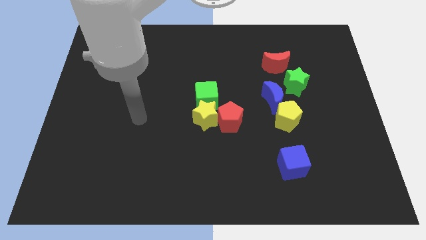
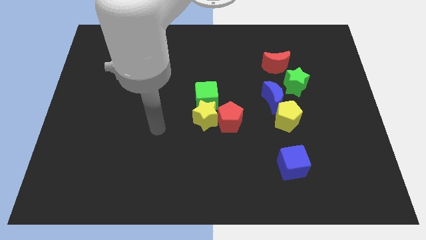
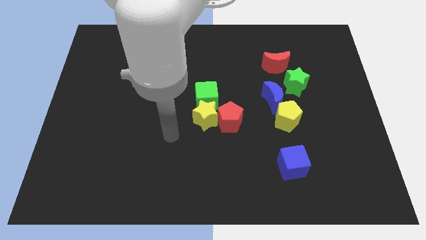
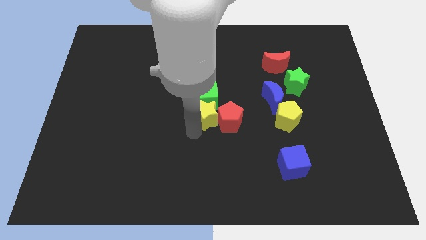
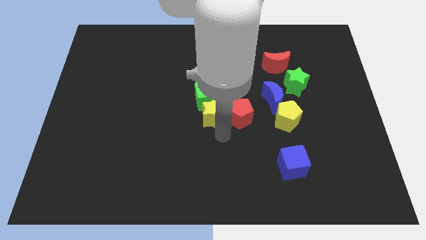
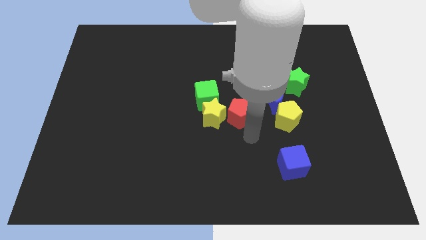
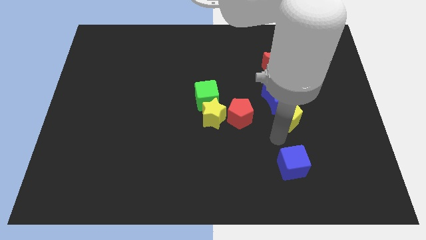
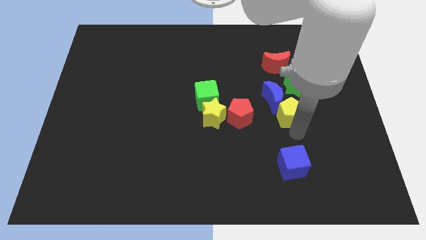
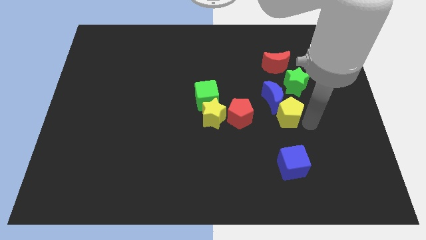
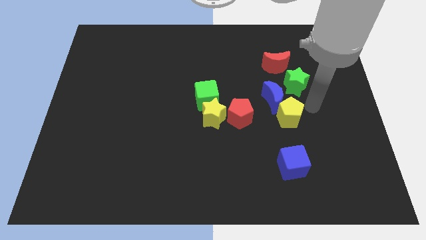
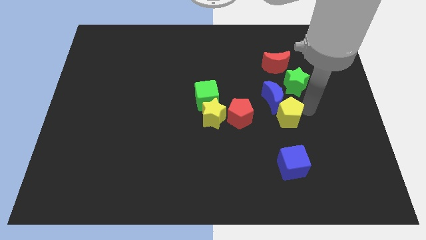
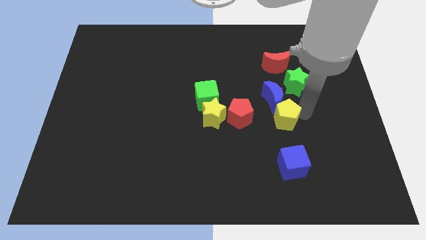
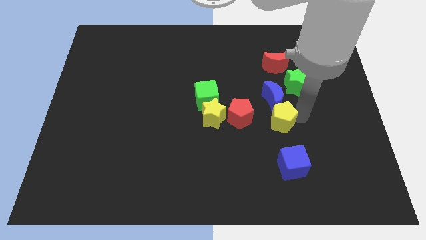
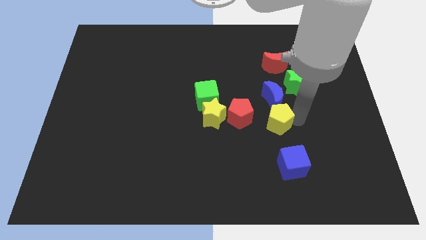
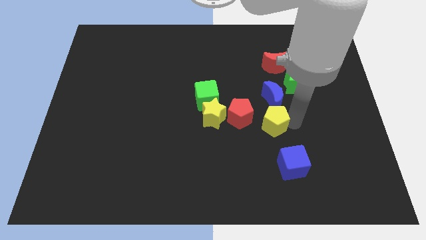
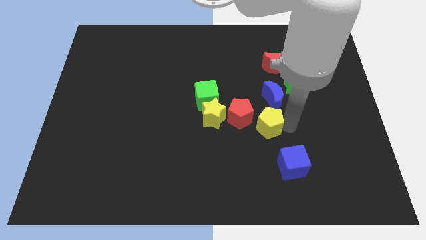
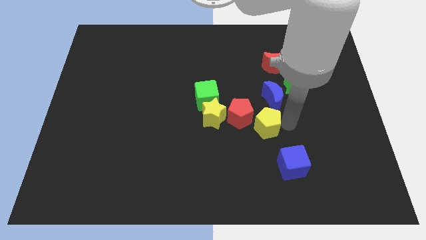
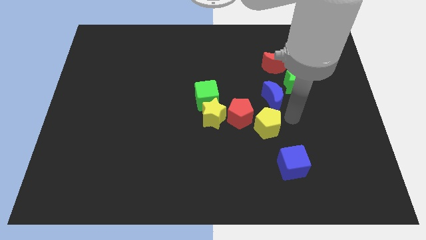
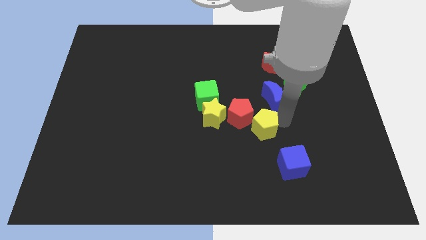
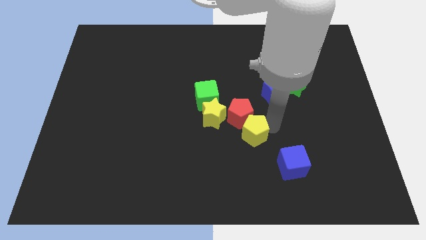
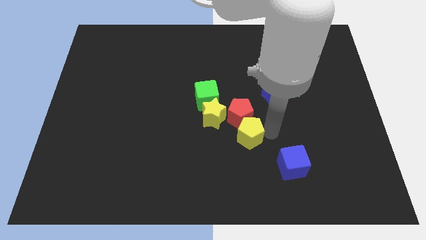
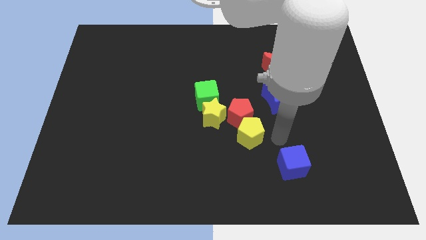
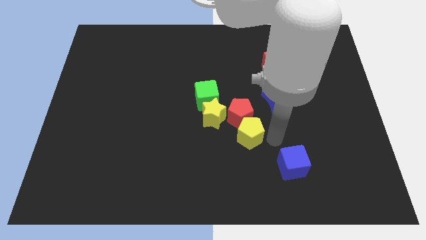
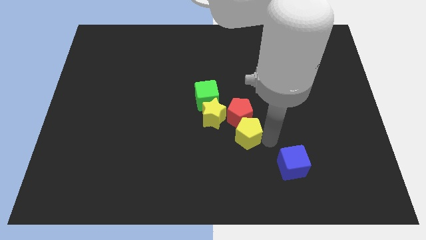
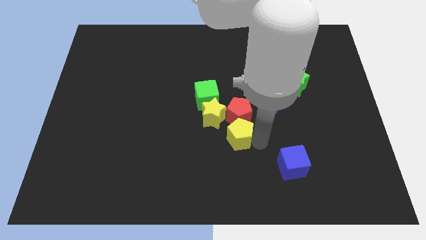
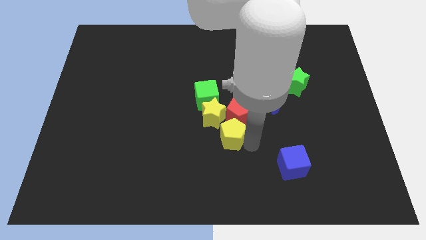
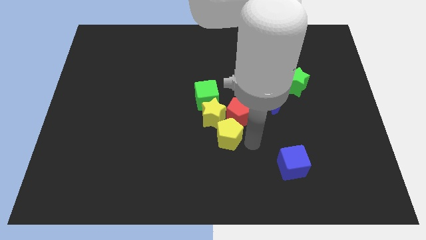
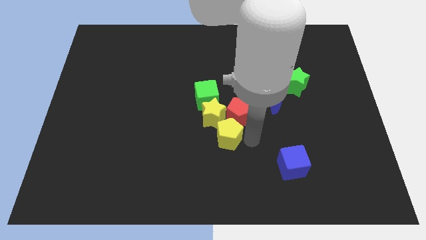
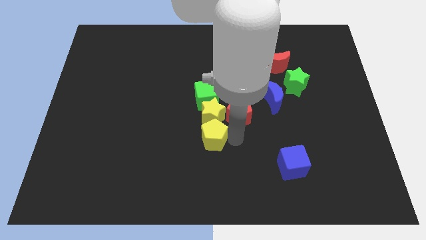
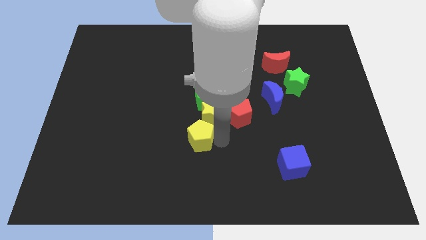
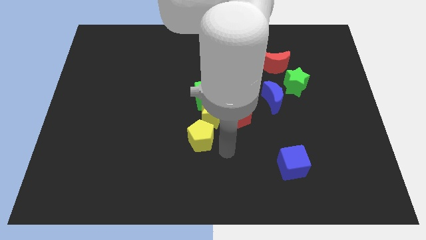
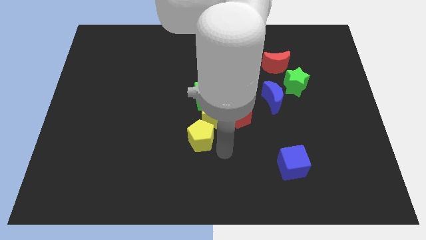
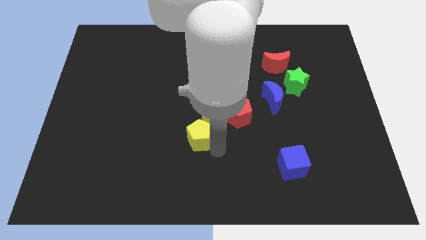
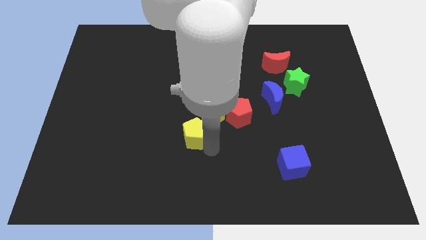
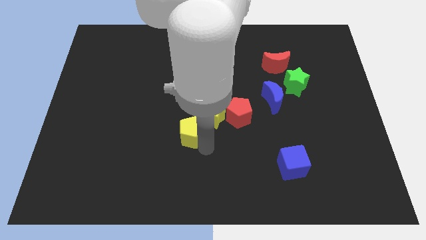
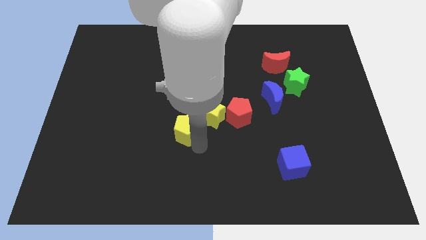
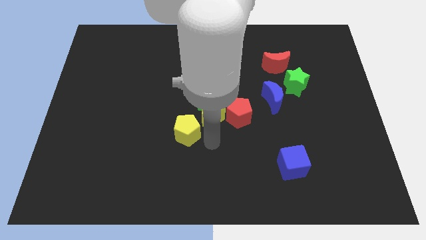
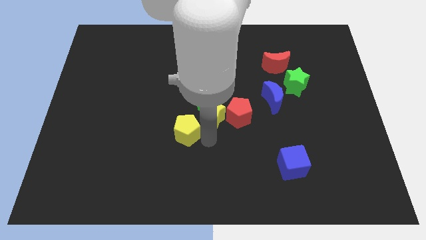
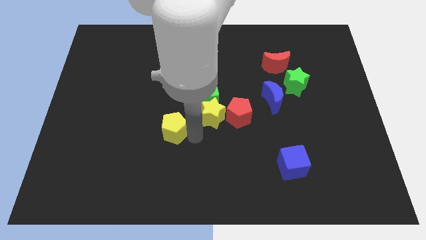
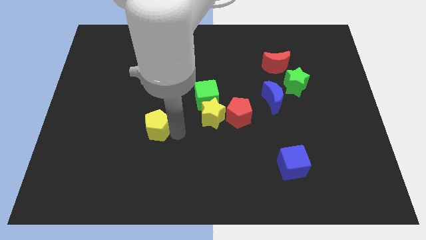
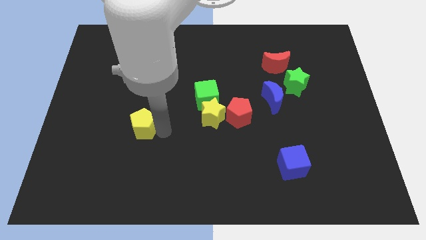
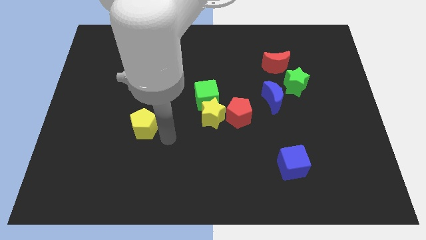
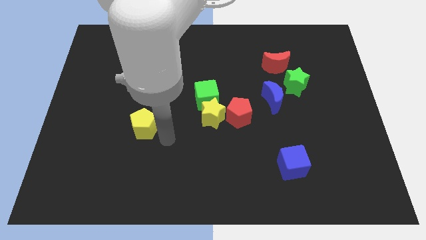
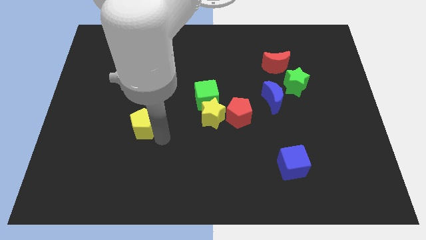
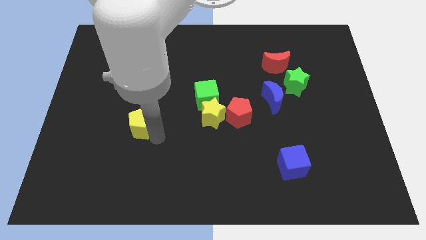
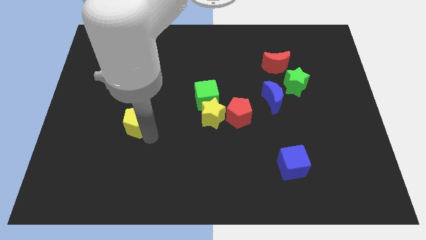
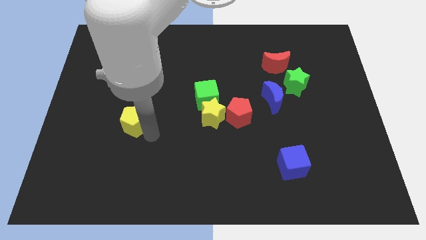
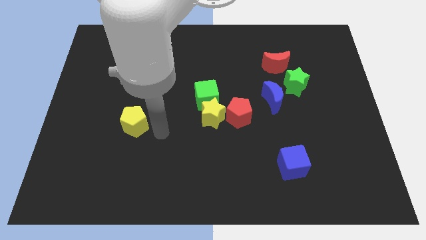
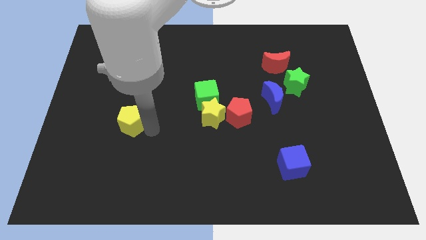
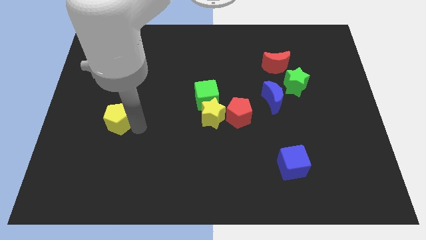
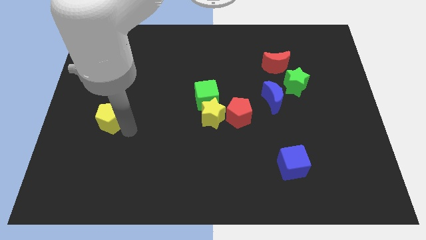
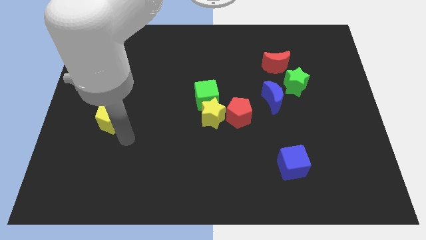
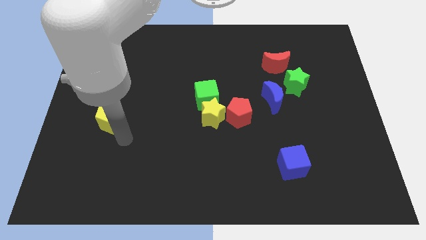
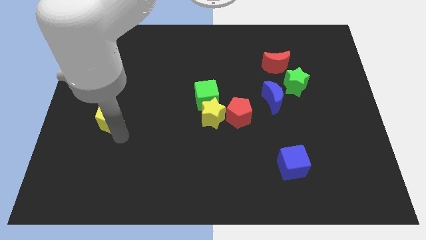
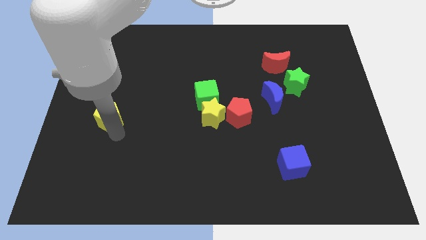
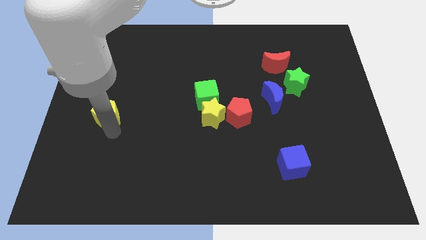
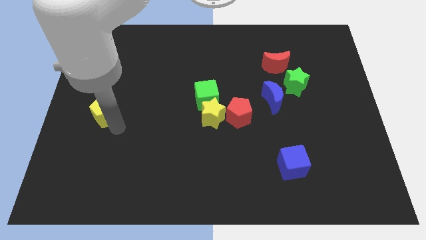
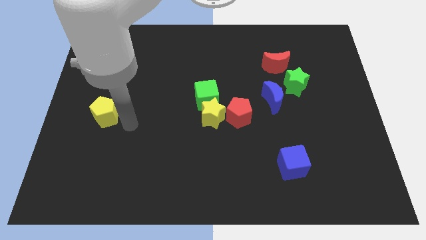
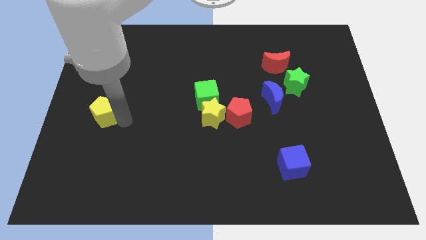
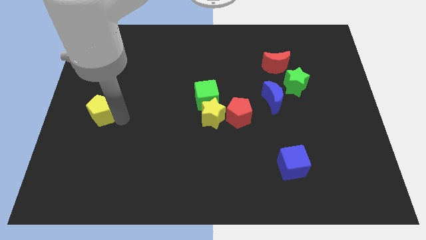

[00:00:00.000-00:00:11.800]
push the yellow pentagon to the left side
